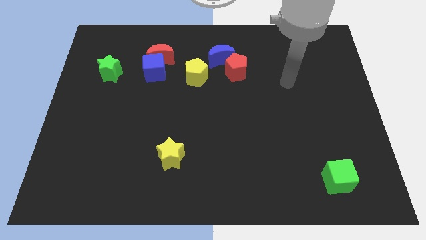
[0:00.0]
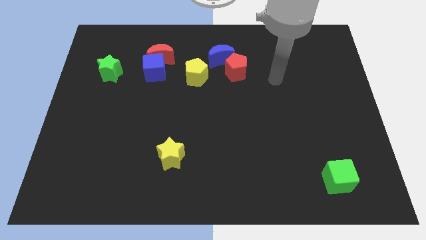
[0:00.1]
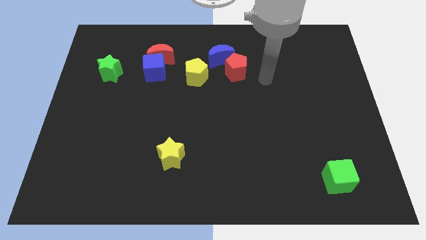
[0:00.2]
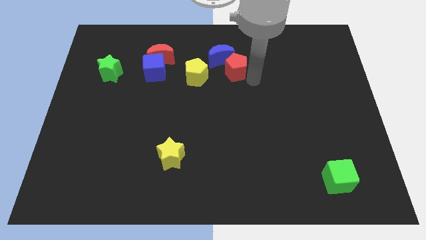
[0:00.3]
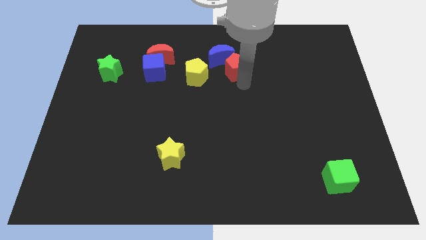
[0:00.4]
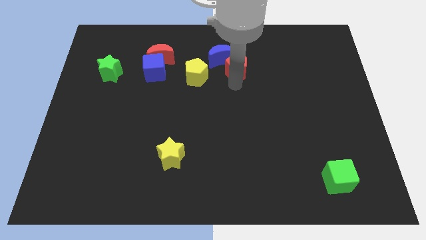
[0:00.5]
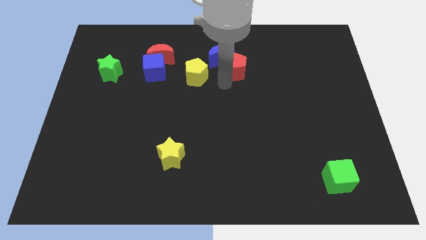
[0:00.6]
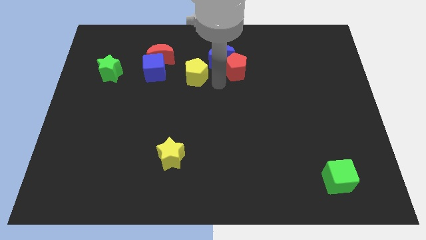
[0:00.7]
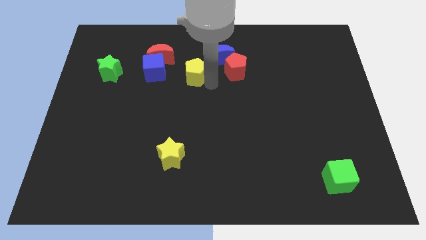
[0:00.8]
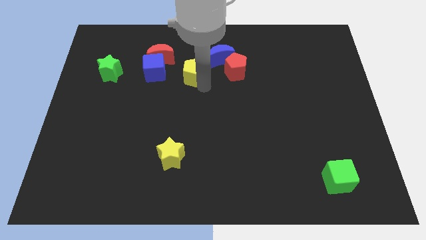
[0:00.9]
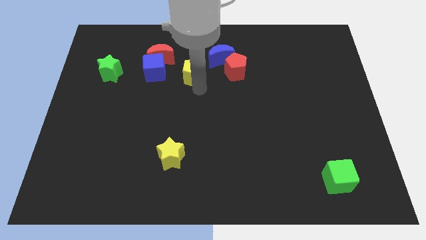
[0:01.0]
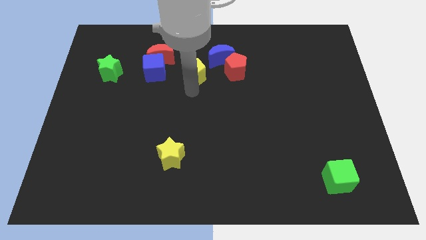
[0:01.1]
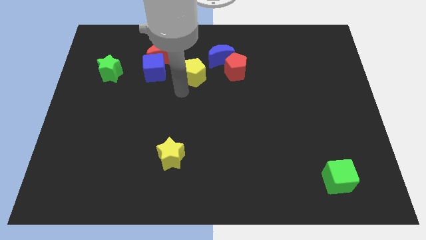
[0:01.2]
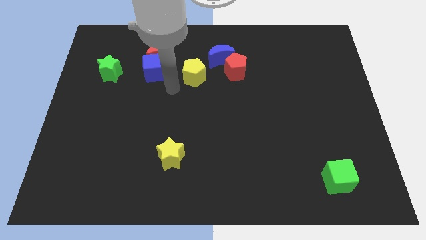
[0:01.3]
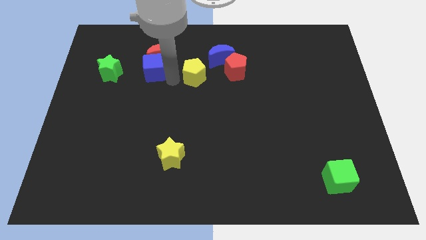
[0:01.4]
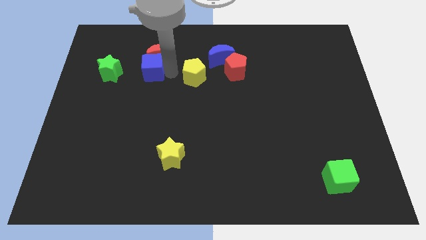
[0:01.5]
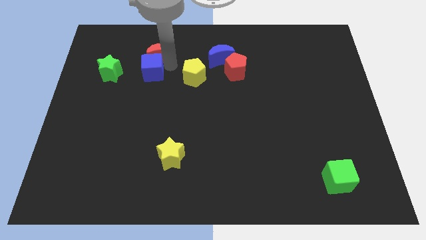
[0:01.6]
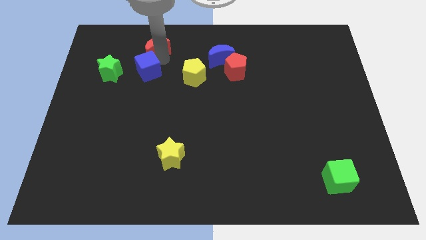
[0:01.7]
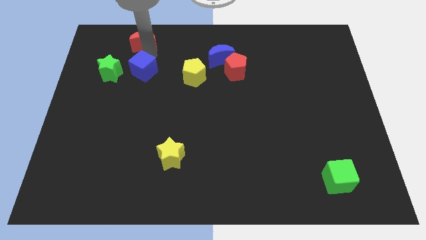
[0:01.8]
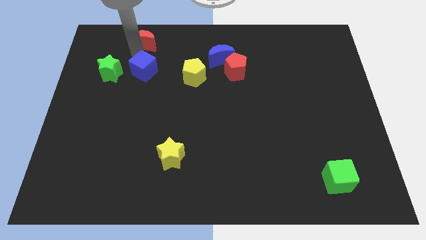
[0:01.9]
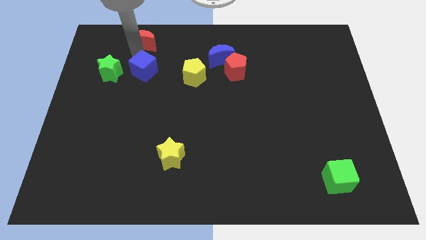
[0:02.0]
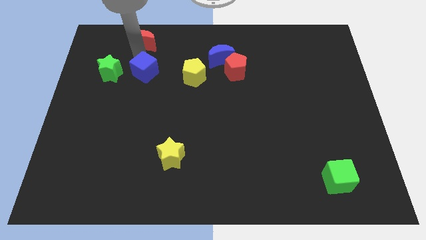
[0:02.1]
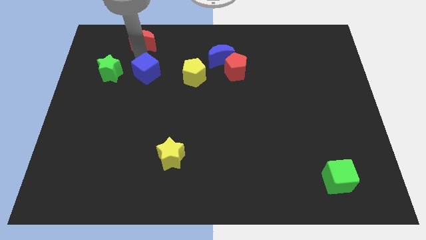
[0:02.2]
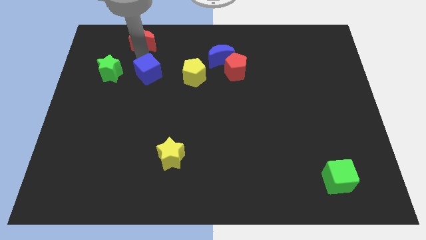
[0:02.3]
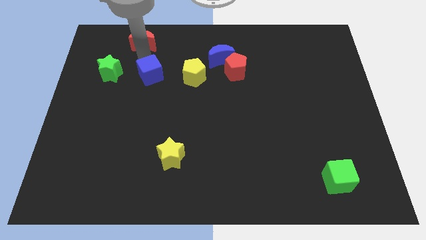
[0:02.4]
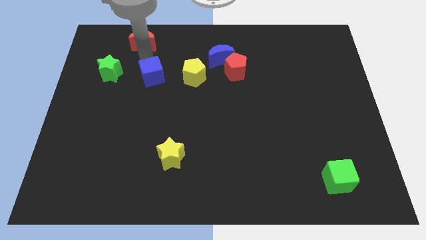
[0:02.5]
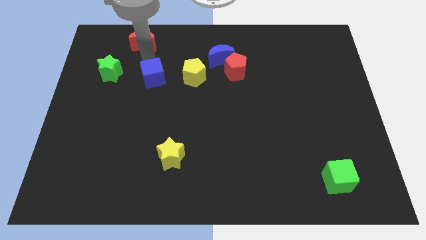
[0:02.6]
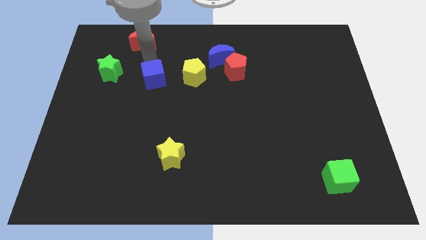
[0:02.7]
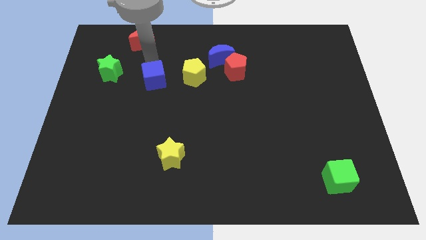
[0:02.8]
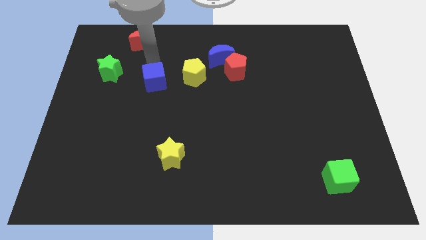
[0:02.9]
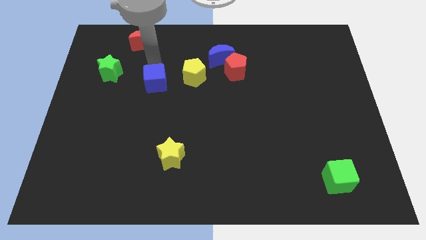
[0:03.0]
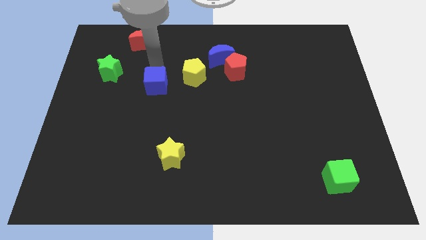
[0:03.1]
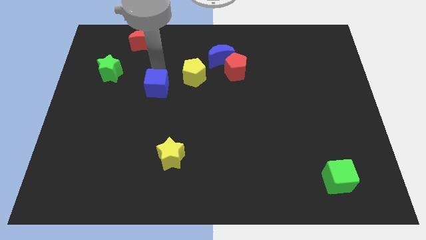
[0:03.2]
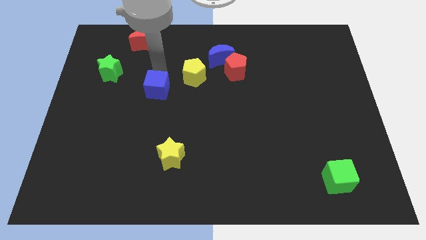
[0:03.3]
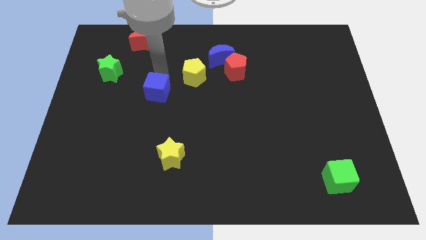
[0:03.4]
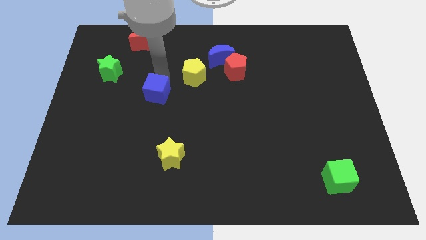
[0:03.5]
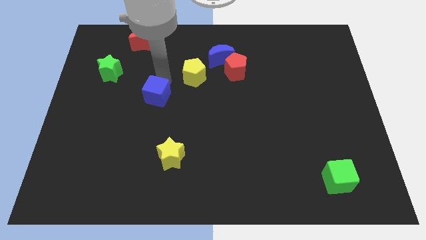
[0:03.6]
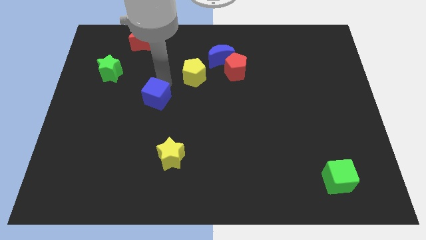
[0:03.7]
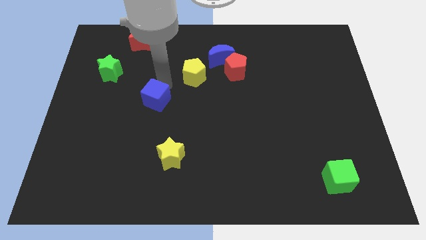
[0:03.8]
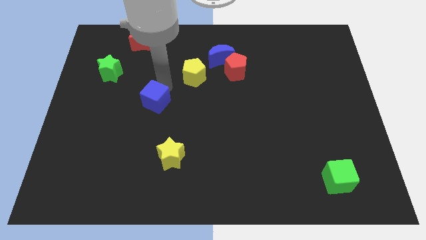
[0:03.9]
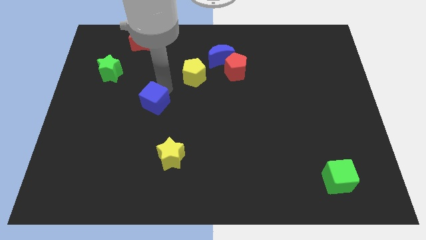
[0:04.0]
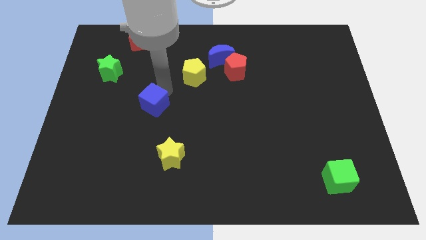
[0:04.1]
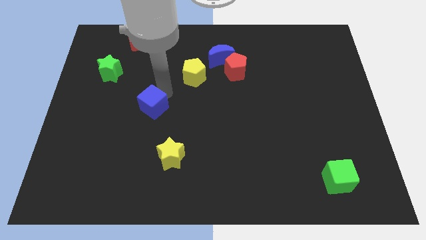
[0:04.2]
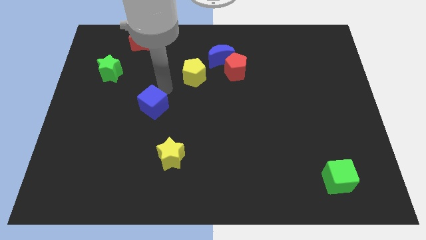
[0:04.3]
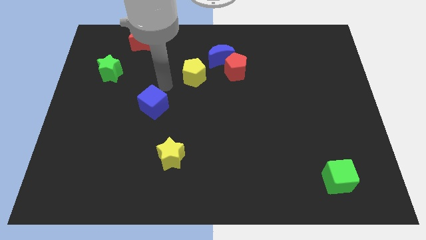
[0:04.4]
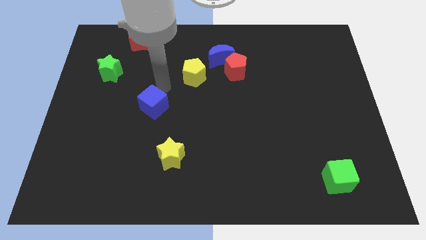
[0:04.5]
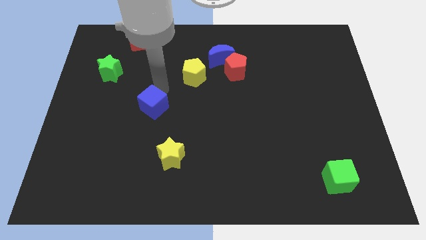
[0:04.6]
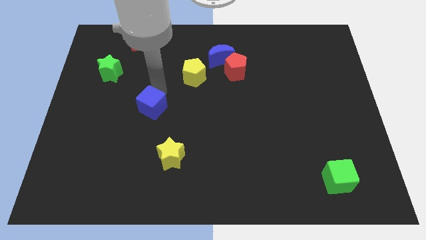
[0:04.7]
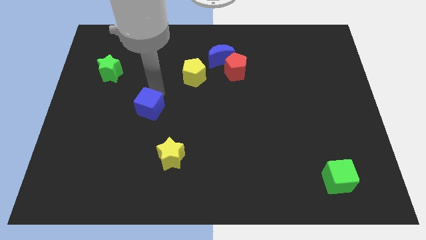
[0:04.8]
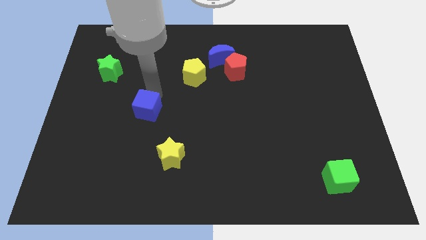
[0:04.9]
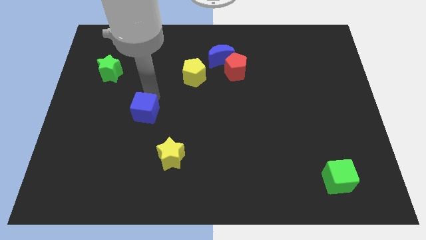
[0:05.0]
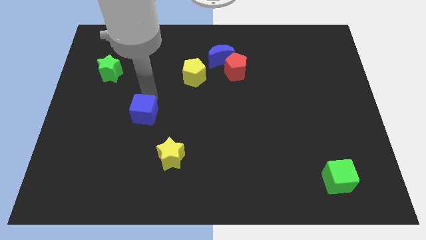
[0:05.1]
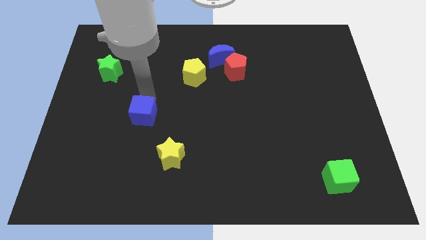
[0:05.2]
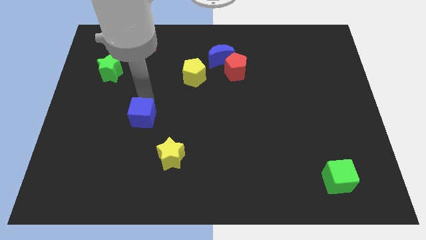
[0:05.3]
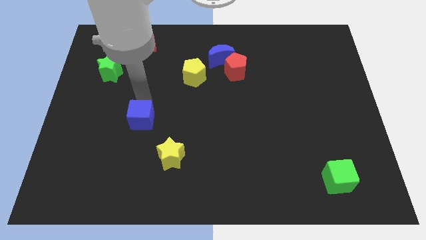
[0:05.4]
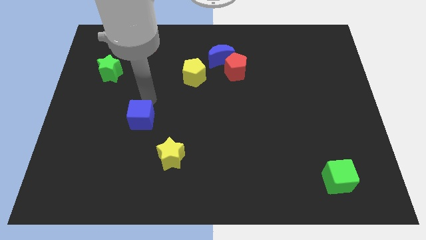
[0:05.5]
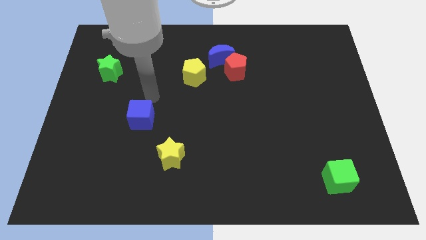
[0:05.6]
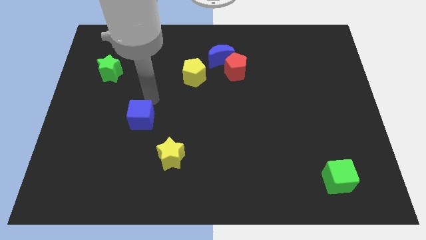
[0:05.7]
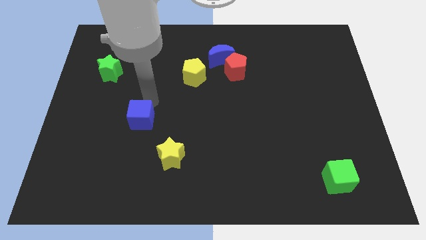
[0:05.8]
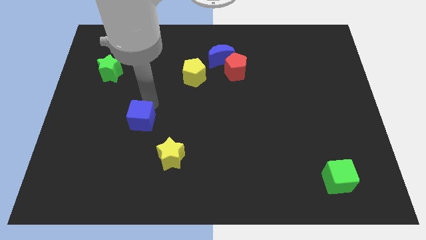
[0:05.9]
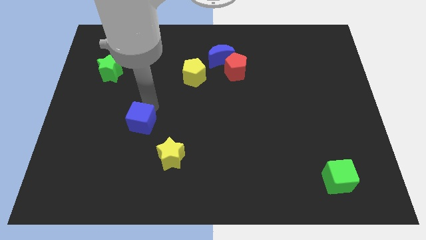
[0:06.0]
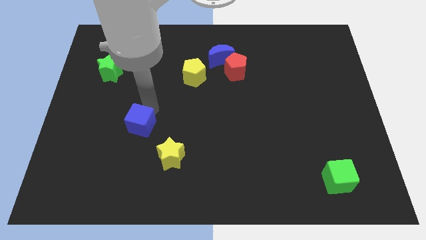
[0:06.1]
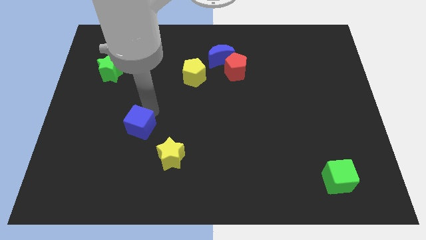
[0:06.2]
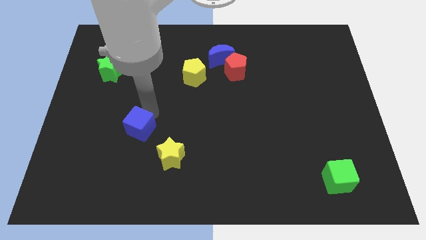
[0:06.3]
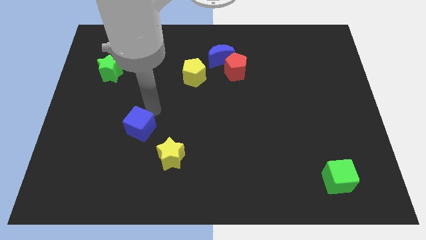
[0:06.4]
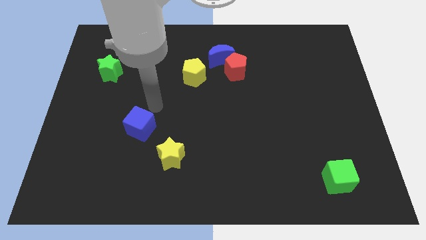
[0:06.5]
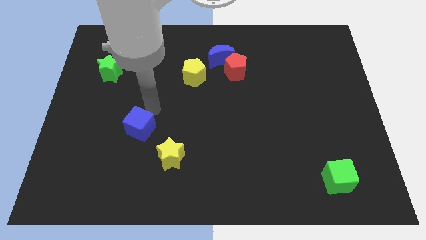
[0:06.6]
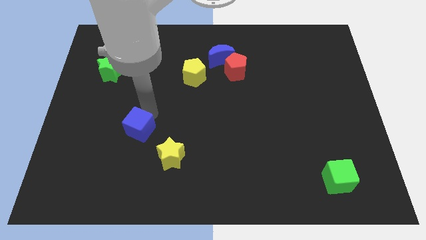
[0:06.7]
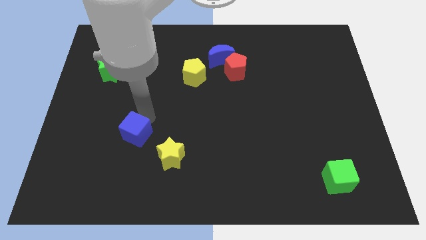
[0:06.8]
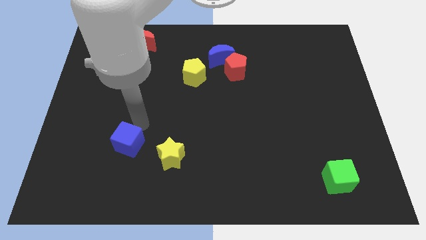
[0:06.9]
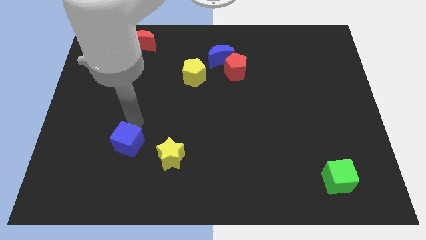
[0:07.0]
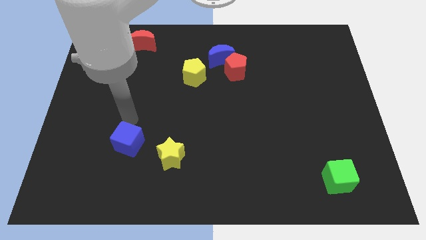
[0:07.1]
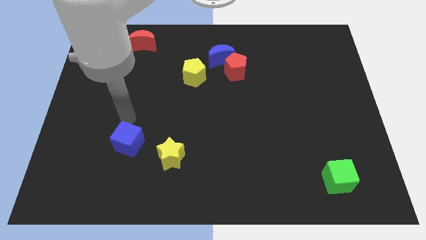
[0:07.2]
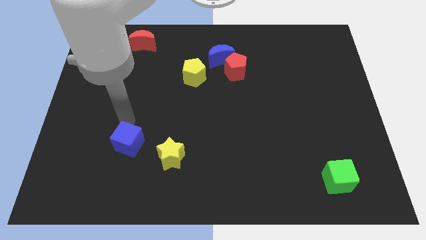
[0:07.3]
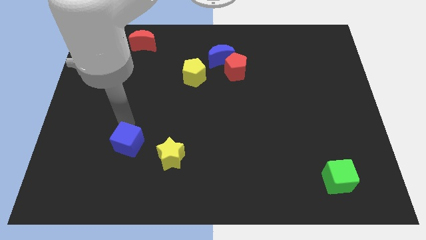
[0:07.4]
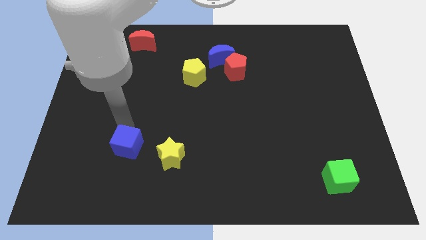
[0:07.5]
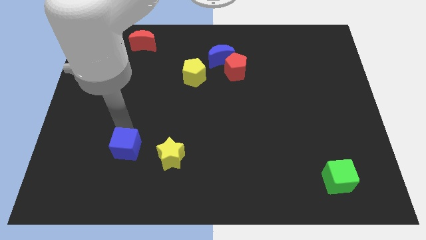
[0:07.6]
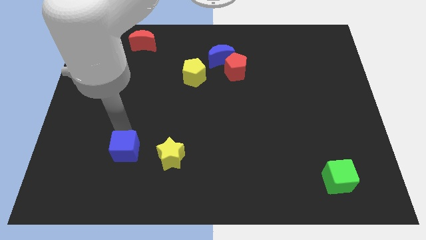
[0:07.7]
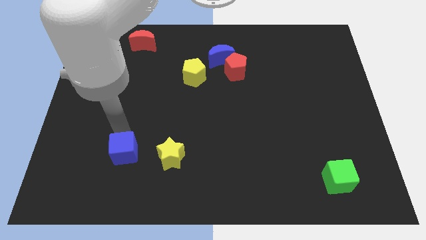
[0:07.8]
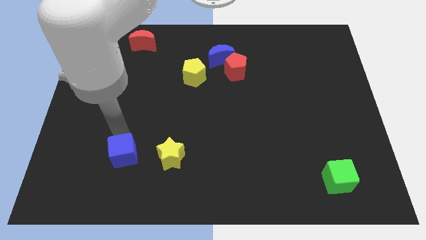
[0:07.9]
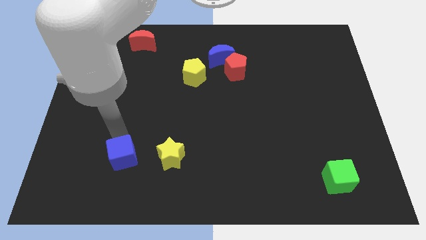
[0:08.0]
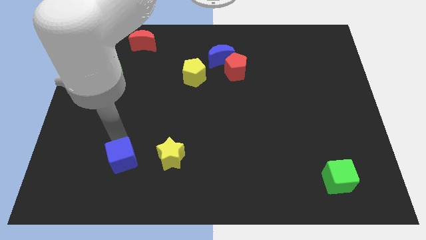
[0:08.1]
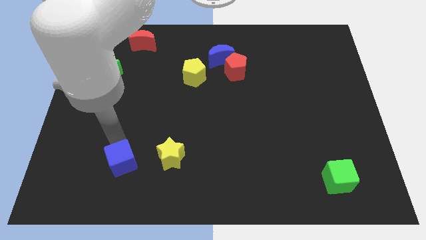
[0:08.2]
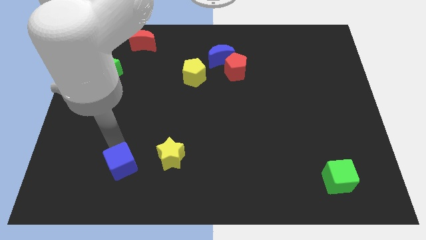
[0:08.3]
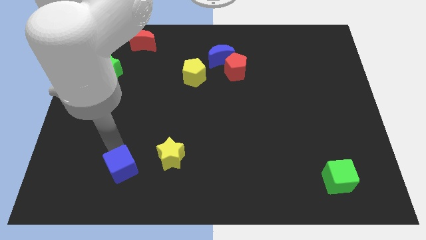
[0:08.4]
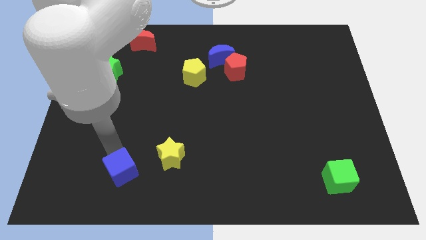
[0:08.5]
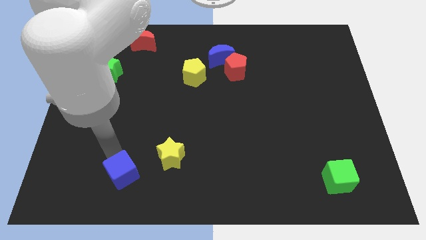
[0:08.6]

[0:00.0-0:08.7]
move the blue cube diagonally down and to the left of the yellow star
